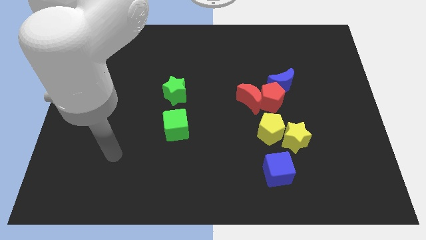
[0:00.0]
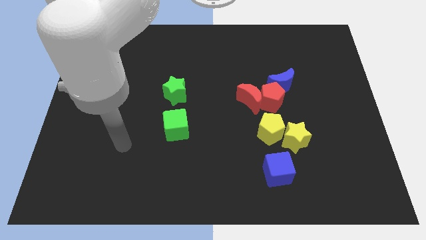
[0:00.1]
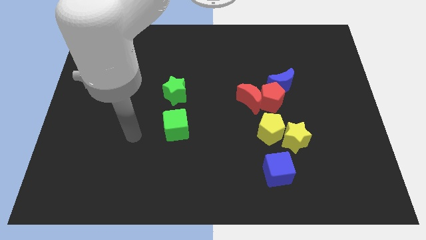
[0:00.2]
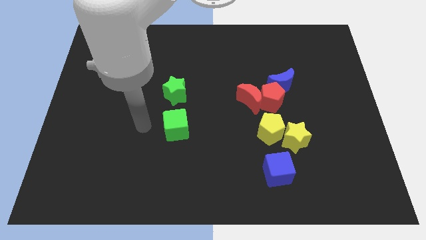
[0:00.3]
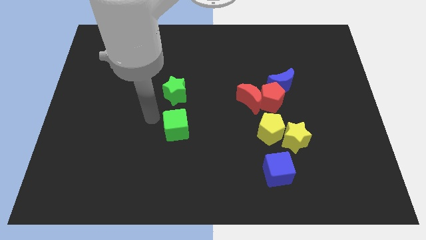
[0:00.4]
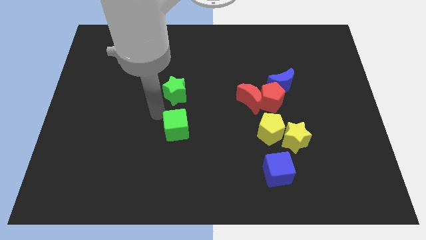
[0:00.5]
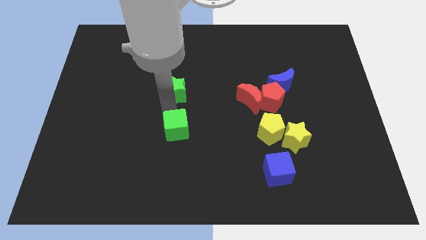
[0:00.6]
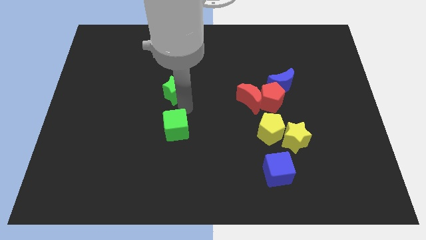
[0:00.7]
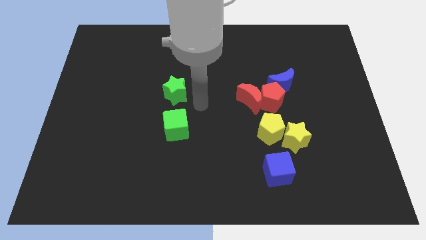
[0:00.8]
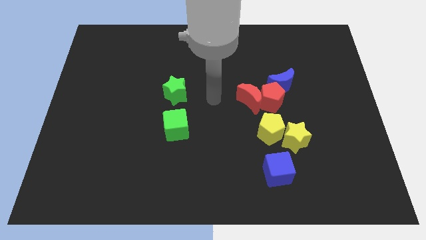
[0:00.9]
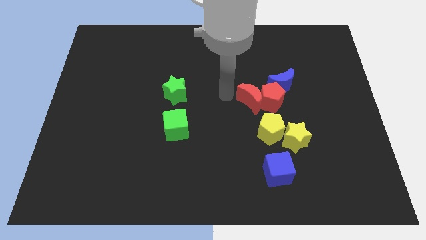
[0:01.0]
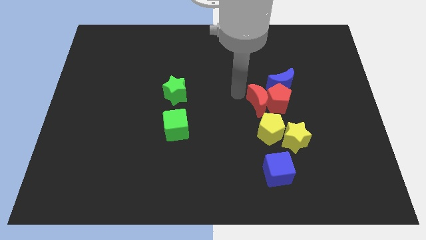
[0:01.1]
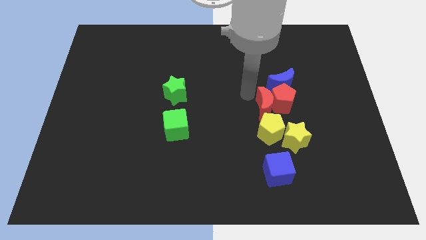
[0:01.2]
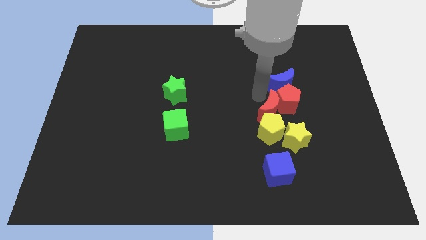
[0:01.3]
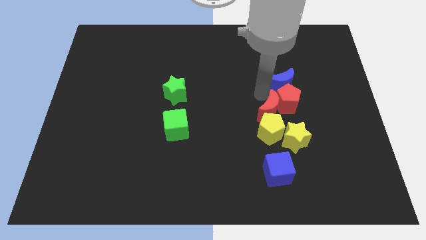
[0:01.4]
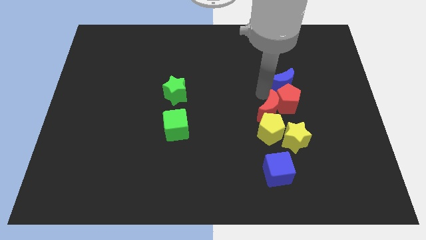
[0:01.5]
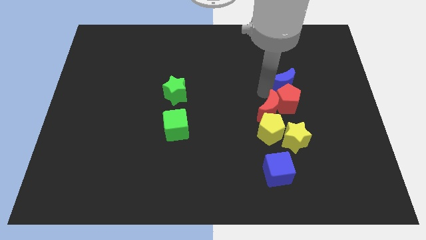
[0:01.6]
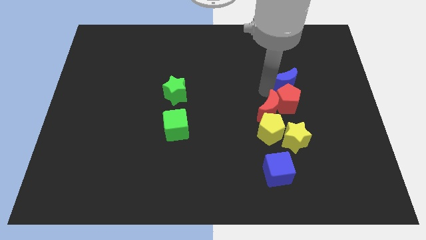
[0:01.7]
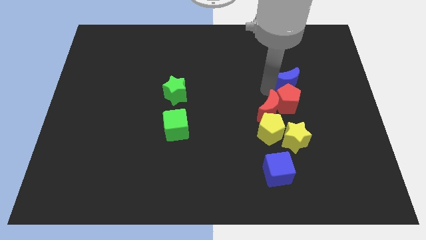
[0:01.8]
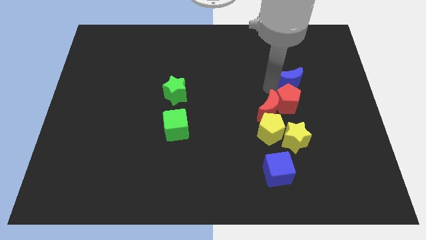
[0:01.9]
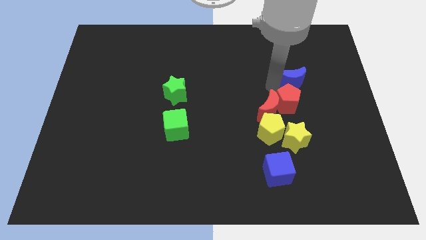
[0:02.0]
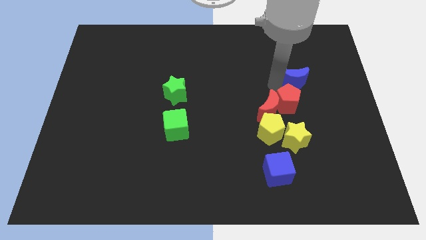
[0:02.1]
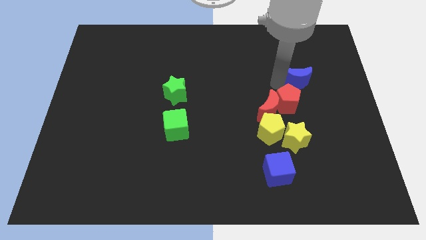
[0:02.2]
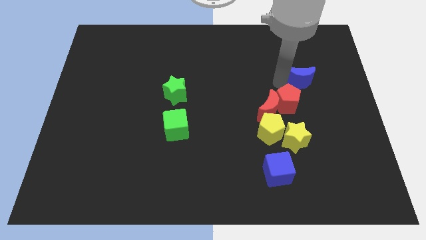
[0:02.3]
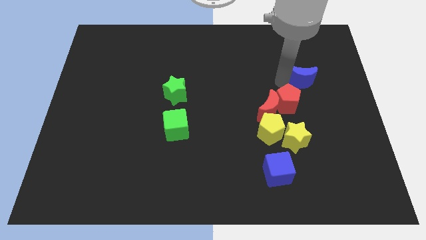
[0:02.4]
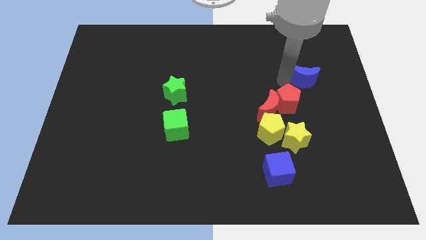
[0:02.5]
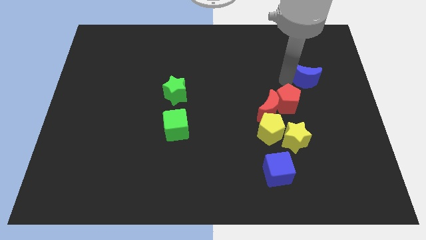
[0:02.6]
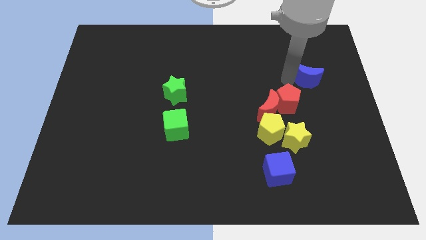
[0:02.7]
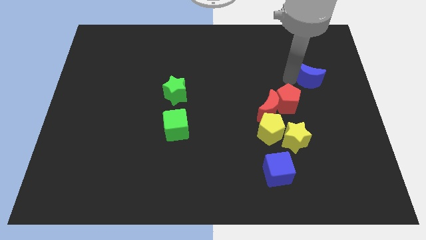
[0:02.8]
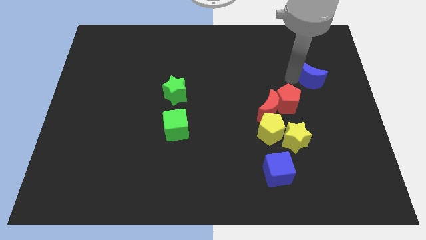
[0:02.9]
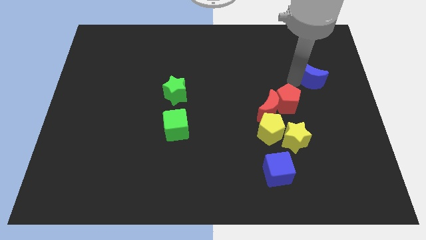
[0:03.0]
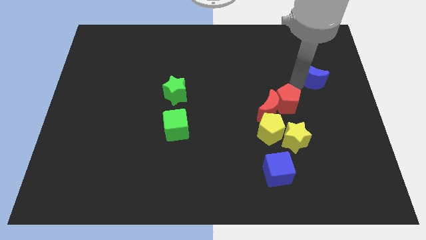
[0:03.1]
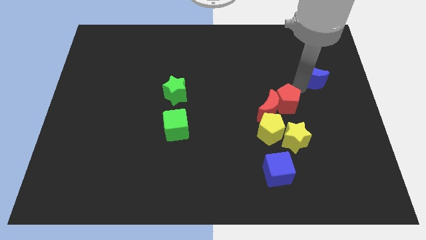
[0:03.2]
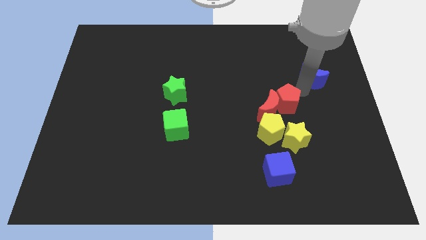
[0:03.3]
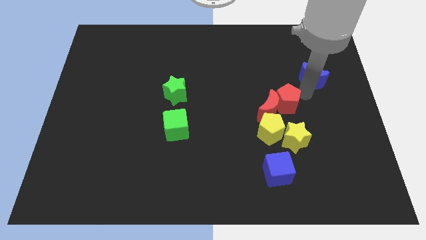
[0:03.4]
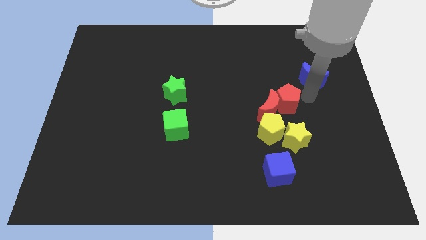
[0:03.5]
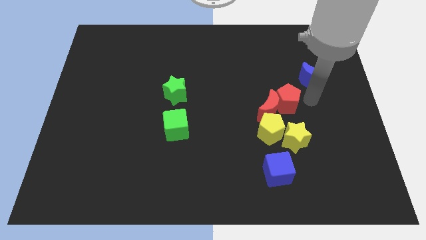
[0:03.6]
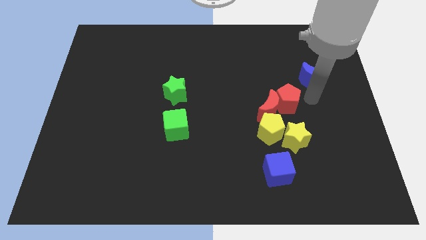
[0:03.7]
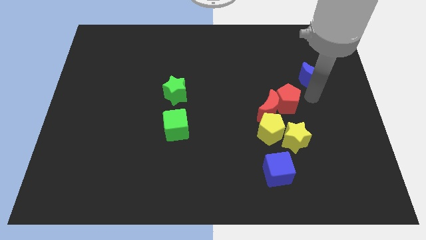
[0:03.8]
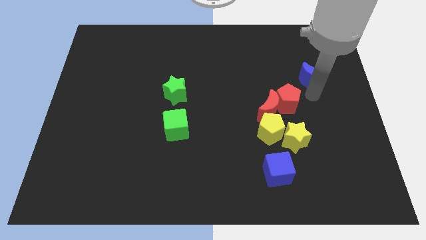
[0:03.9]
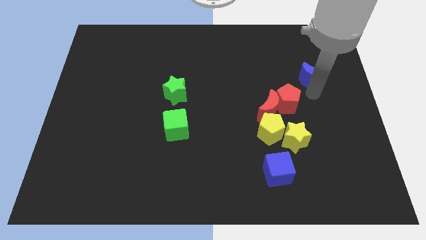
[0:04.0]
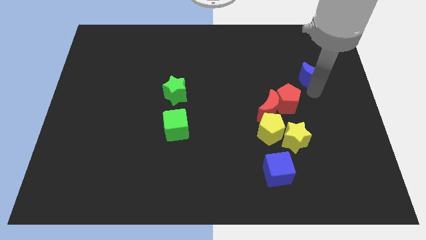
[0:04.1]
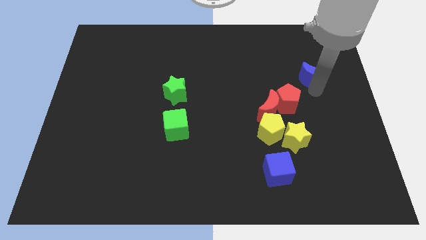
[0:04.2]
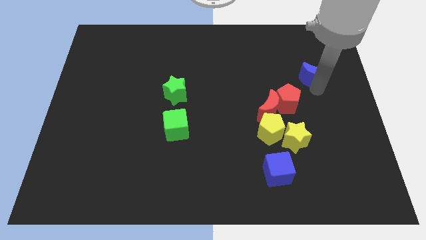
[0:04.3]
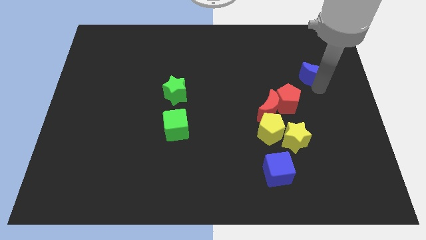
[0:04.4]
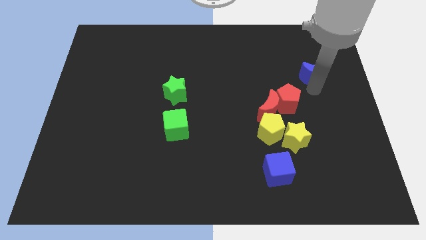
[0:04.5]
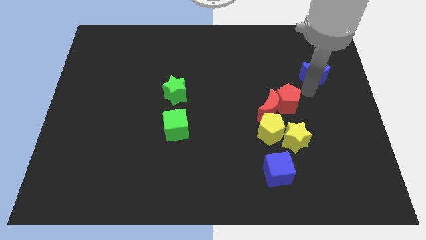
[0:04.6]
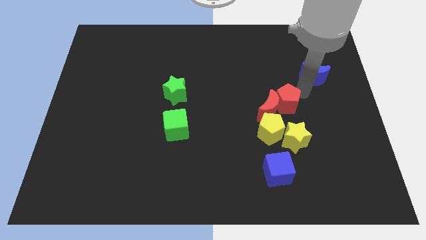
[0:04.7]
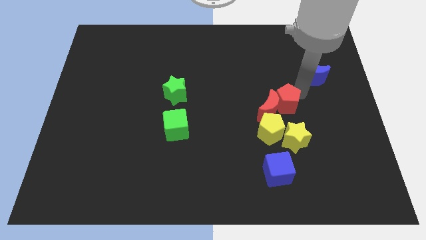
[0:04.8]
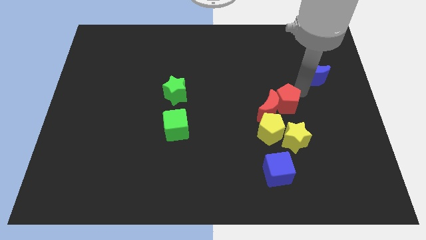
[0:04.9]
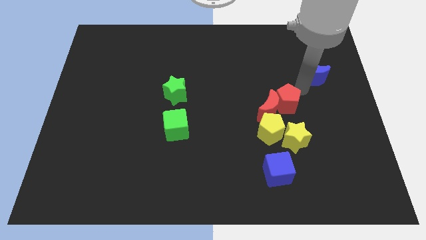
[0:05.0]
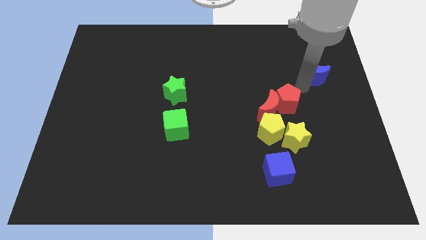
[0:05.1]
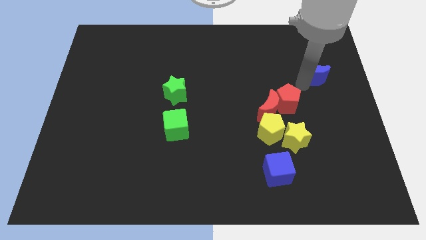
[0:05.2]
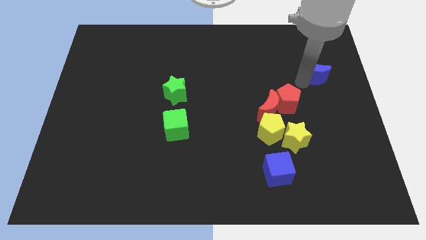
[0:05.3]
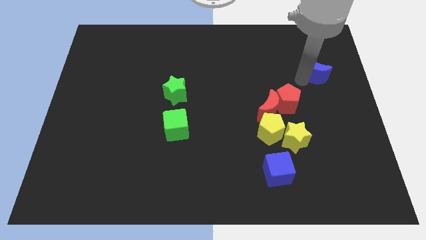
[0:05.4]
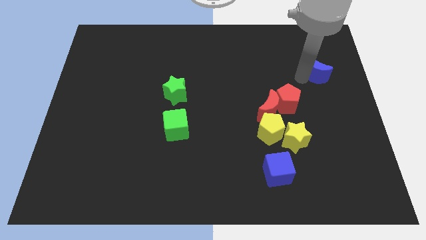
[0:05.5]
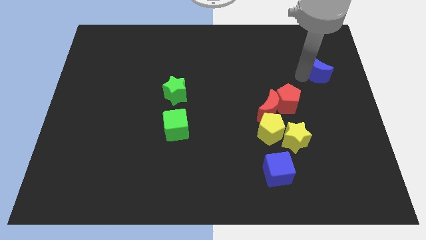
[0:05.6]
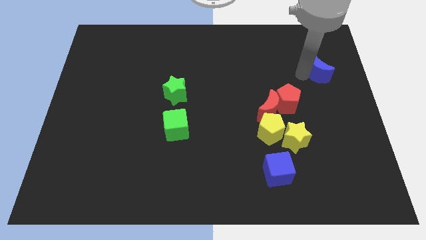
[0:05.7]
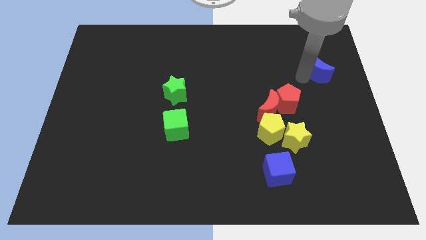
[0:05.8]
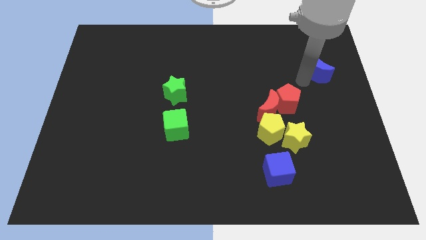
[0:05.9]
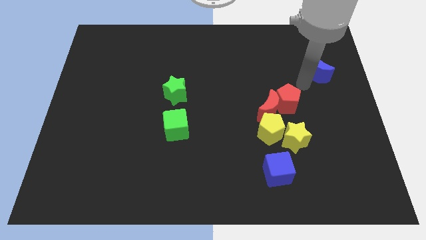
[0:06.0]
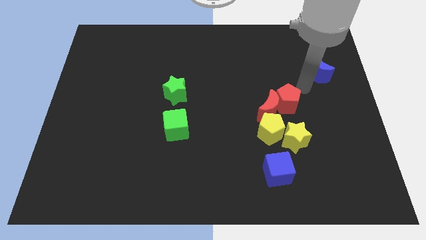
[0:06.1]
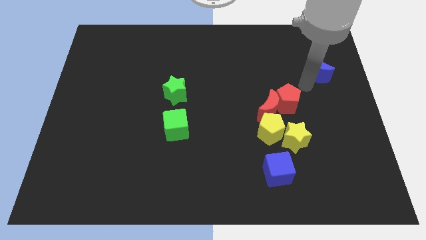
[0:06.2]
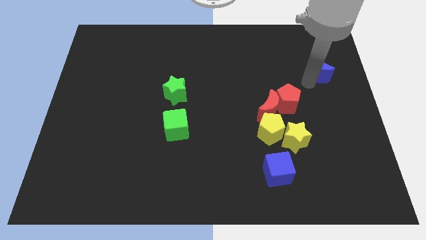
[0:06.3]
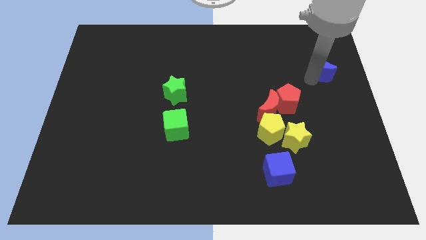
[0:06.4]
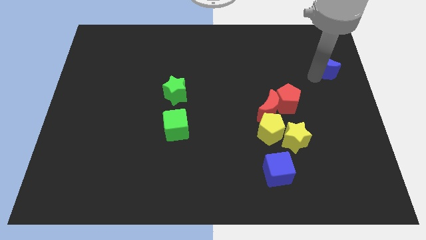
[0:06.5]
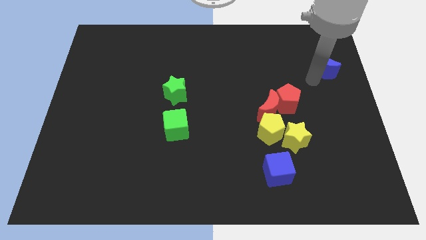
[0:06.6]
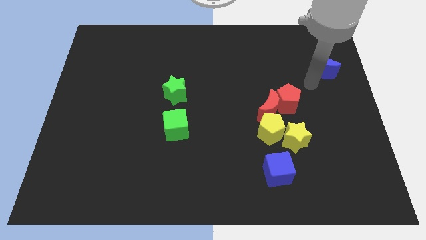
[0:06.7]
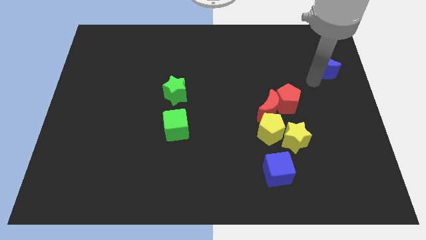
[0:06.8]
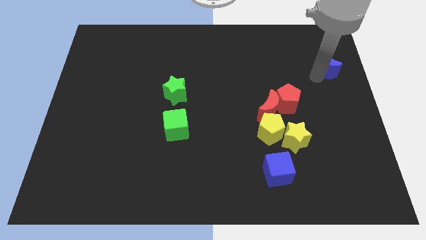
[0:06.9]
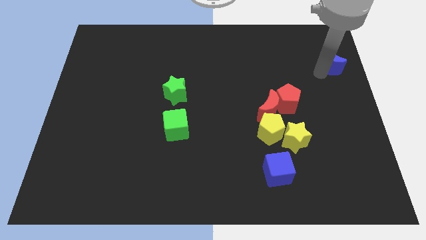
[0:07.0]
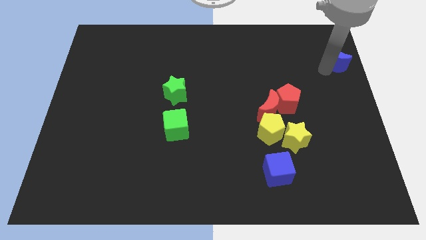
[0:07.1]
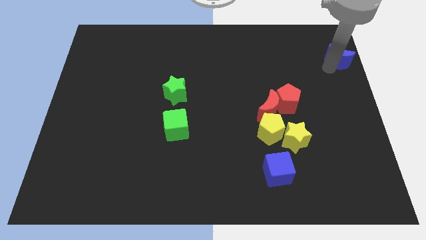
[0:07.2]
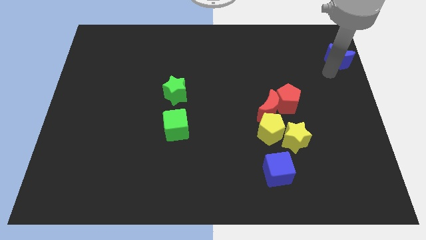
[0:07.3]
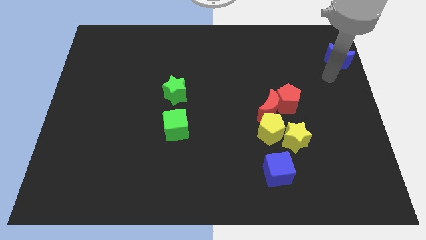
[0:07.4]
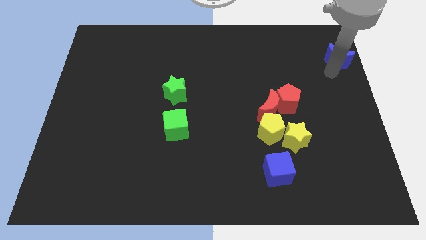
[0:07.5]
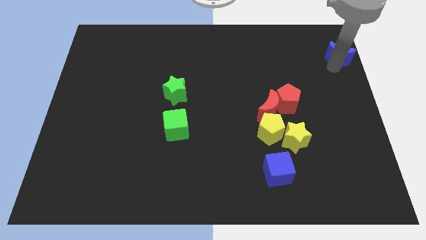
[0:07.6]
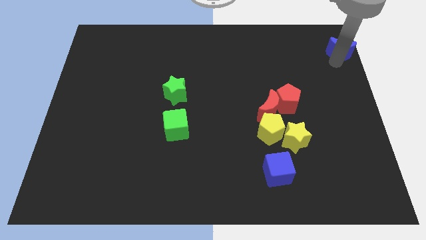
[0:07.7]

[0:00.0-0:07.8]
put the blue moon to the top right corner
